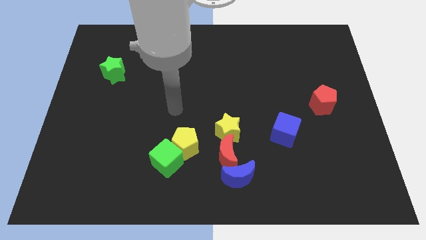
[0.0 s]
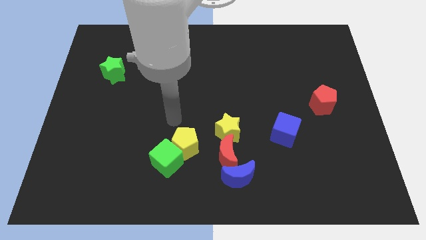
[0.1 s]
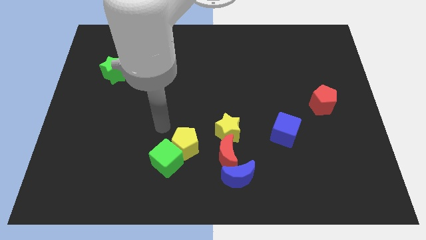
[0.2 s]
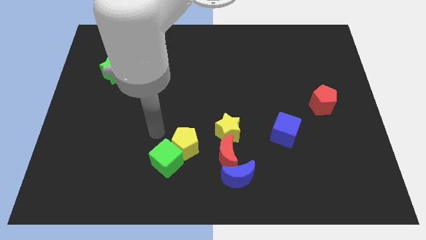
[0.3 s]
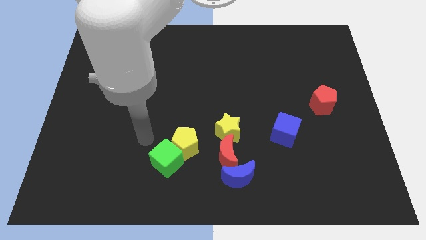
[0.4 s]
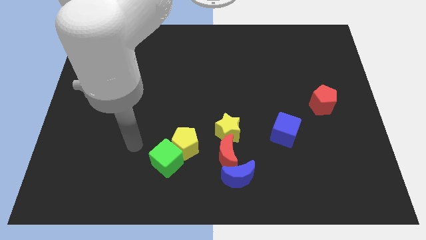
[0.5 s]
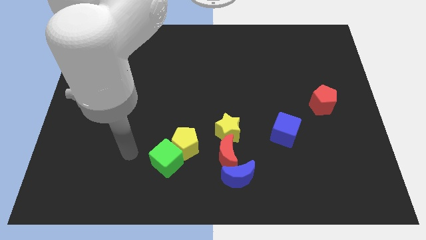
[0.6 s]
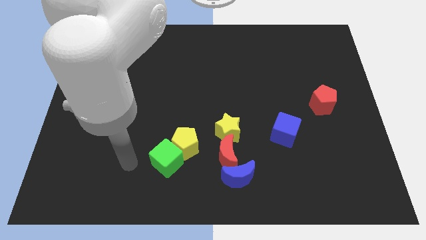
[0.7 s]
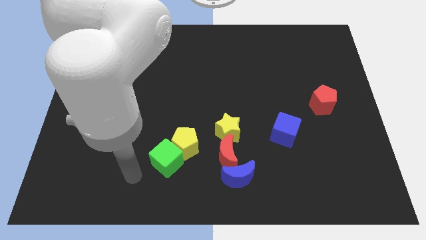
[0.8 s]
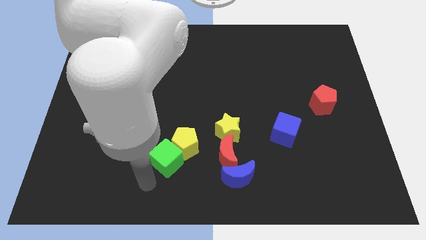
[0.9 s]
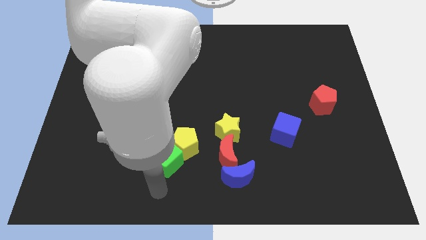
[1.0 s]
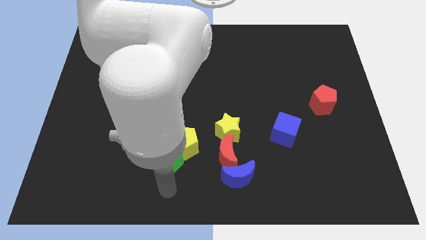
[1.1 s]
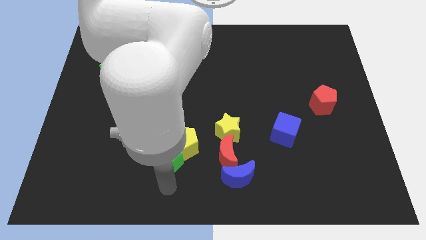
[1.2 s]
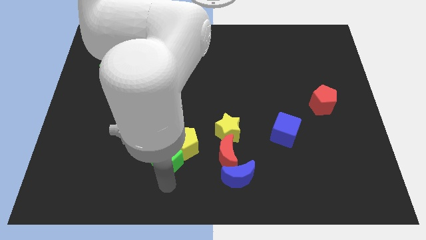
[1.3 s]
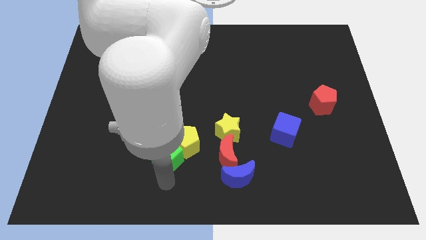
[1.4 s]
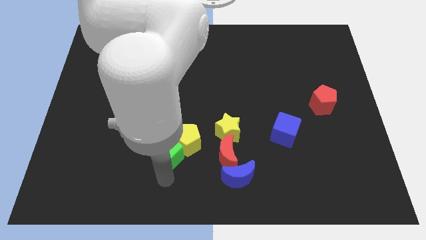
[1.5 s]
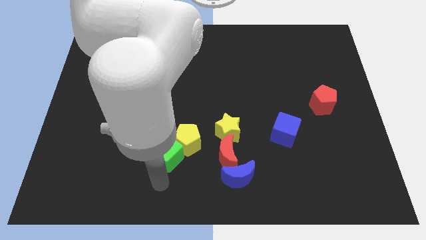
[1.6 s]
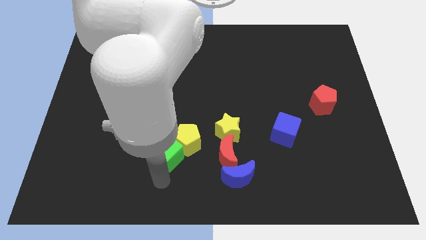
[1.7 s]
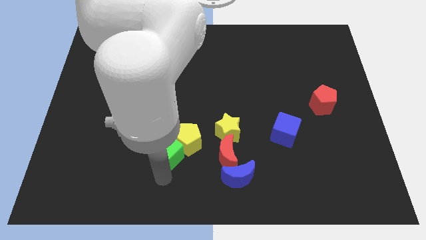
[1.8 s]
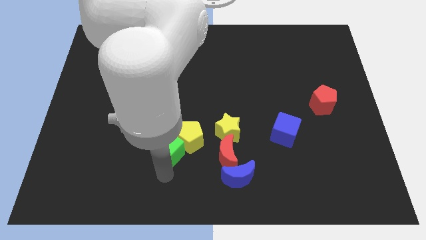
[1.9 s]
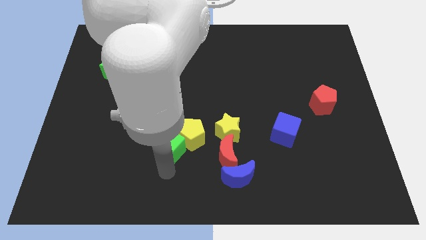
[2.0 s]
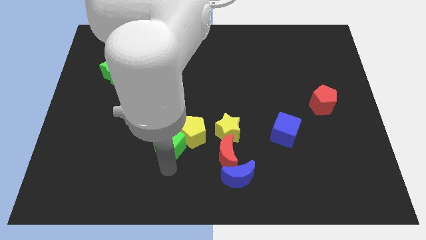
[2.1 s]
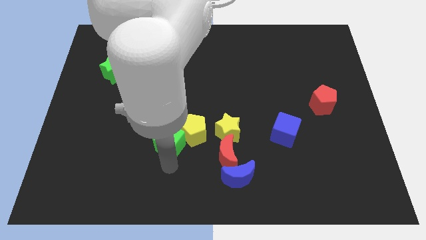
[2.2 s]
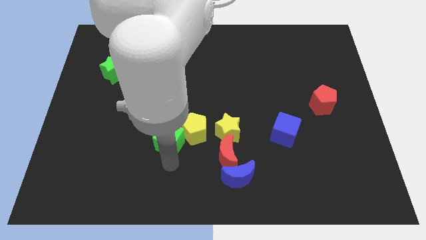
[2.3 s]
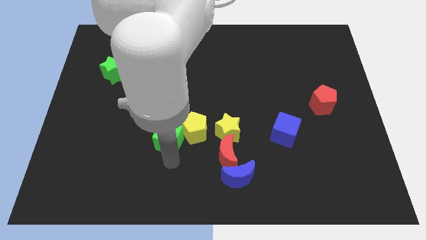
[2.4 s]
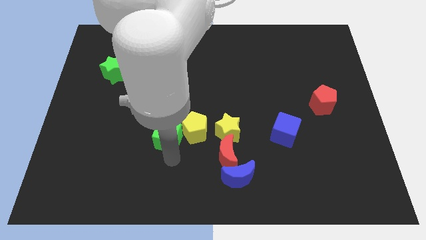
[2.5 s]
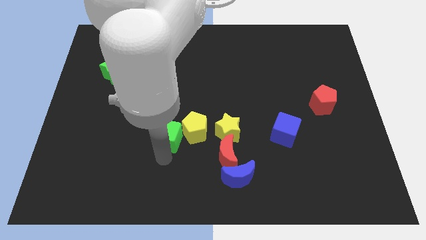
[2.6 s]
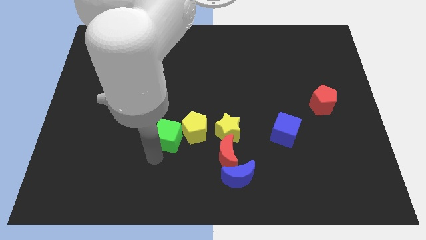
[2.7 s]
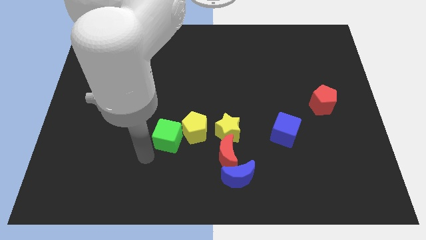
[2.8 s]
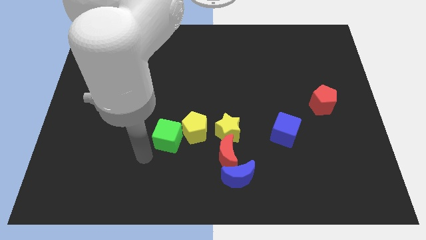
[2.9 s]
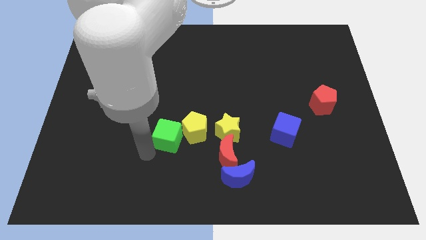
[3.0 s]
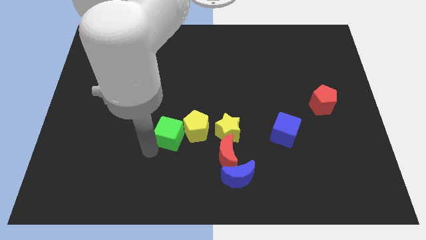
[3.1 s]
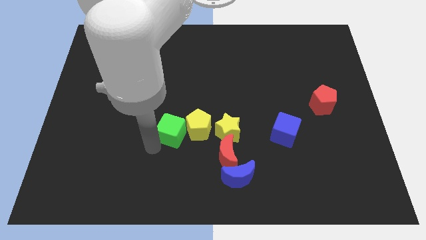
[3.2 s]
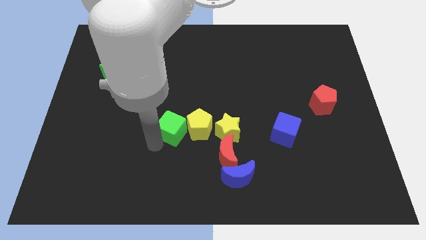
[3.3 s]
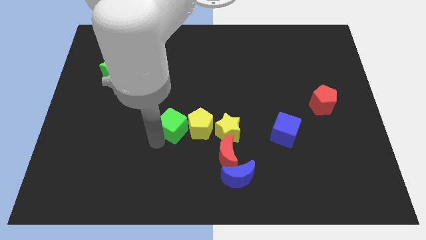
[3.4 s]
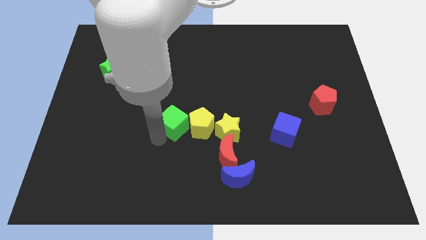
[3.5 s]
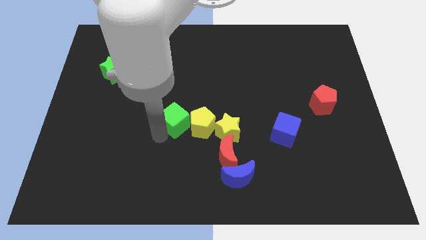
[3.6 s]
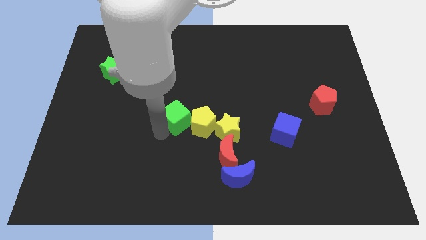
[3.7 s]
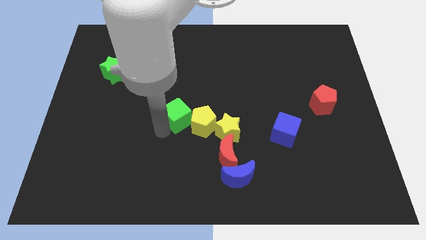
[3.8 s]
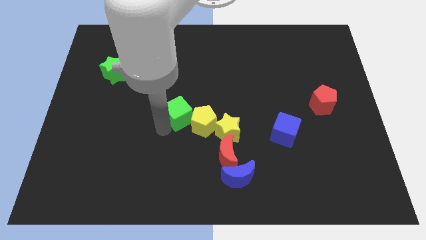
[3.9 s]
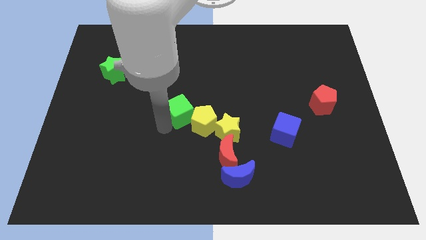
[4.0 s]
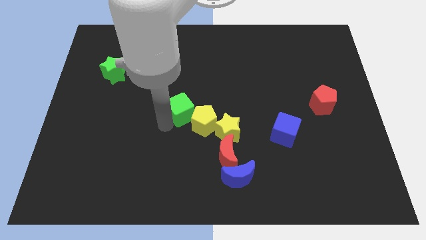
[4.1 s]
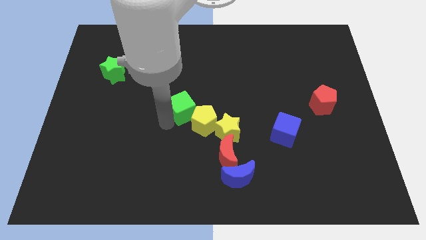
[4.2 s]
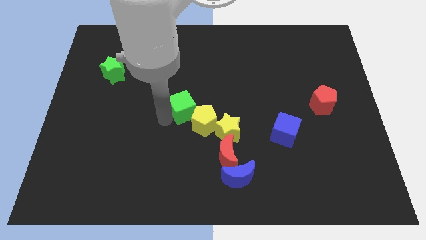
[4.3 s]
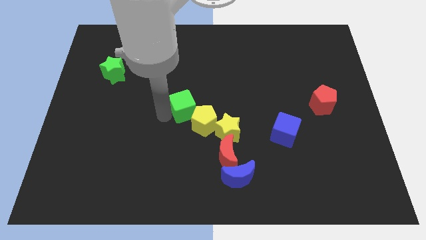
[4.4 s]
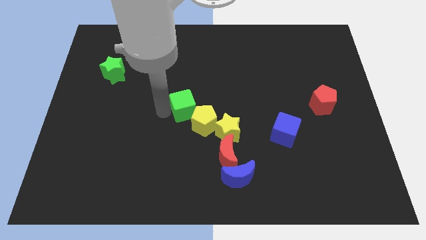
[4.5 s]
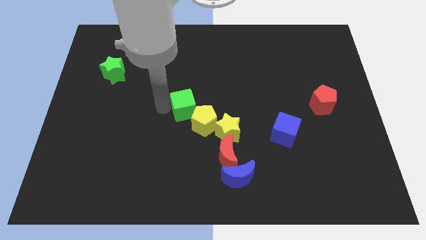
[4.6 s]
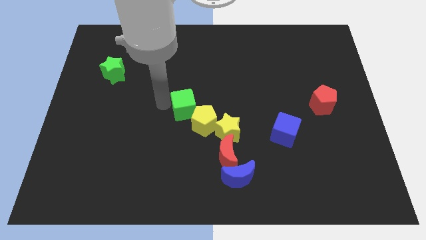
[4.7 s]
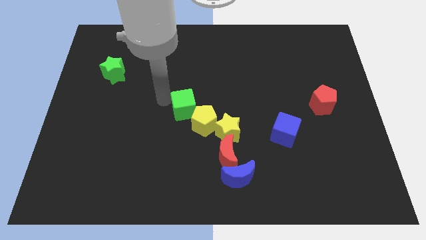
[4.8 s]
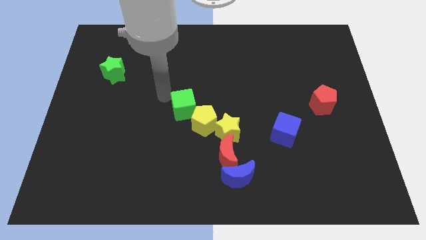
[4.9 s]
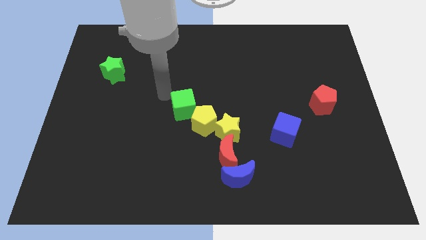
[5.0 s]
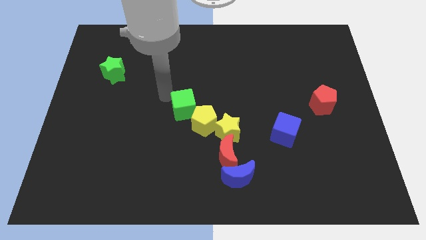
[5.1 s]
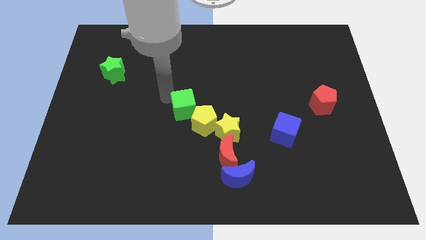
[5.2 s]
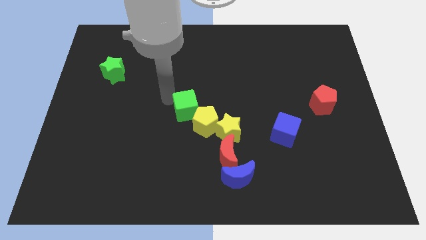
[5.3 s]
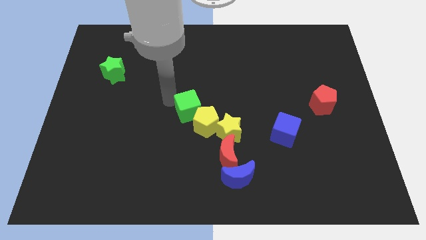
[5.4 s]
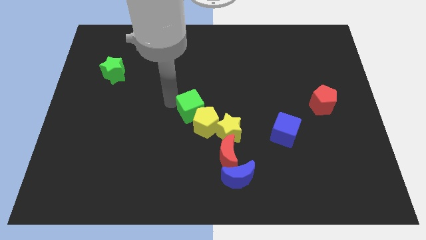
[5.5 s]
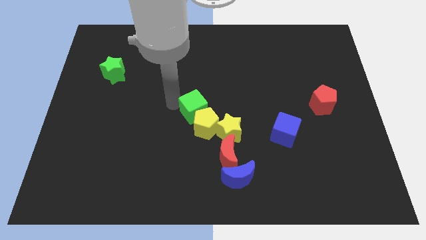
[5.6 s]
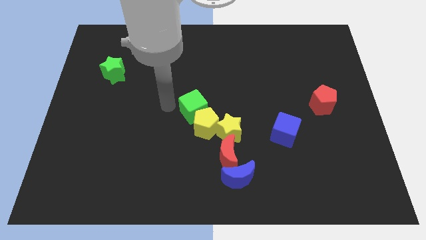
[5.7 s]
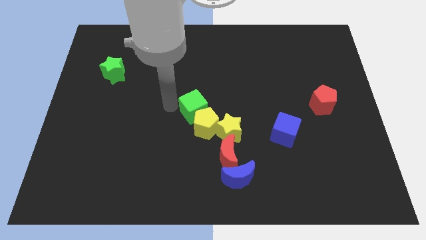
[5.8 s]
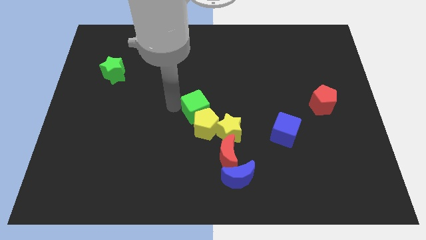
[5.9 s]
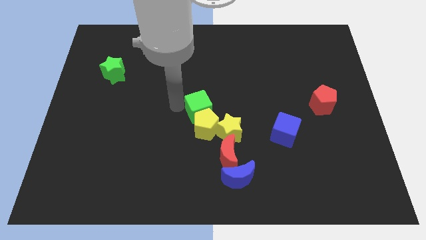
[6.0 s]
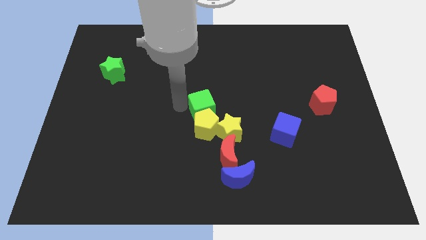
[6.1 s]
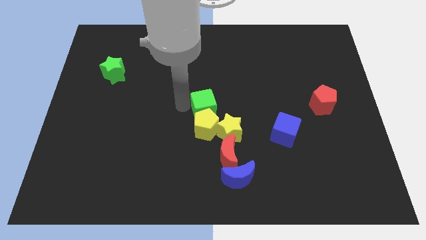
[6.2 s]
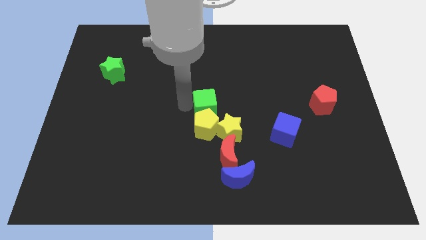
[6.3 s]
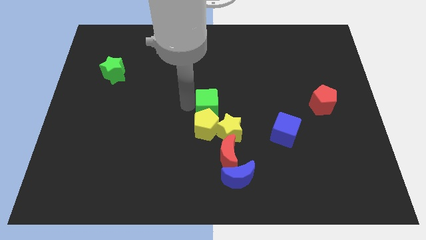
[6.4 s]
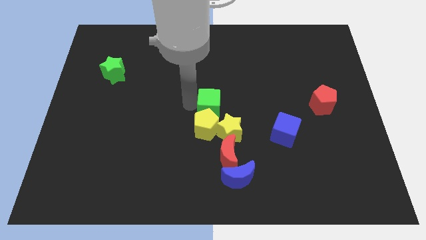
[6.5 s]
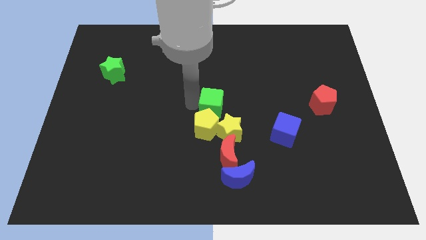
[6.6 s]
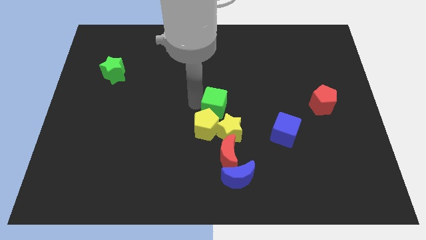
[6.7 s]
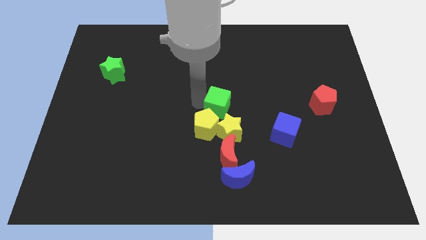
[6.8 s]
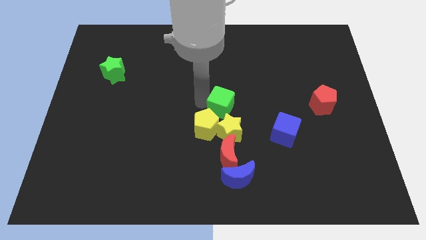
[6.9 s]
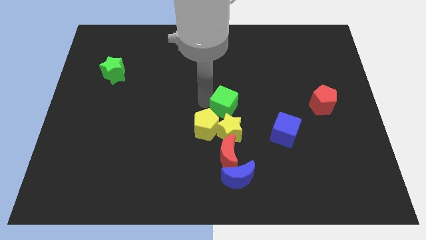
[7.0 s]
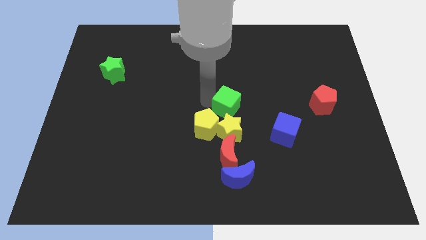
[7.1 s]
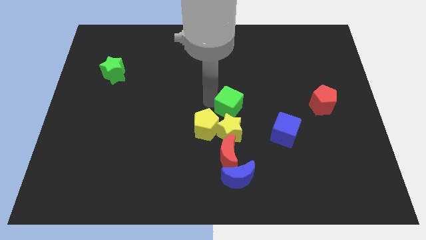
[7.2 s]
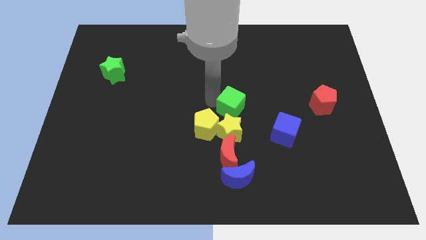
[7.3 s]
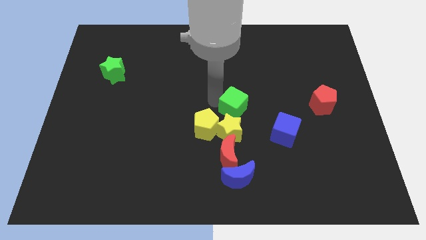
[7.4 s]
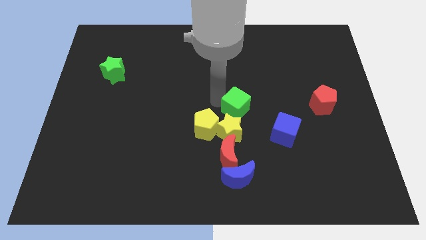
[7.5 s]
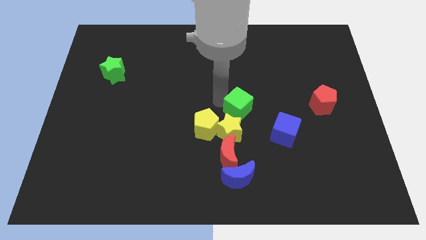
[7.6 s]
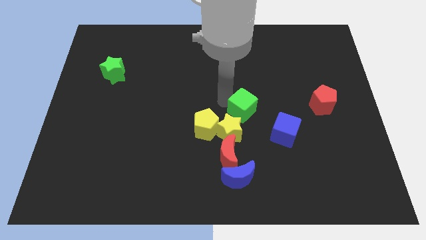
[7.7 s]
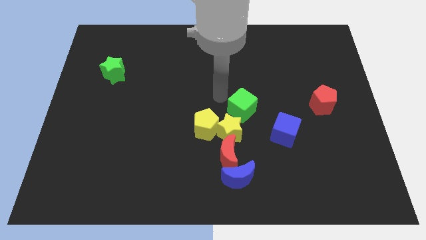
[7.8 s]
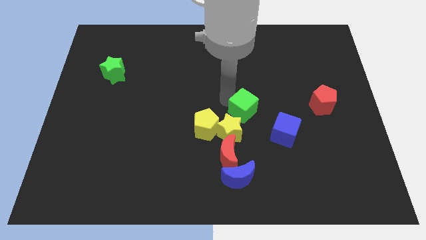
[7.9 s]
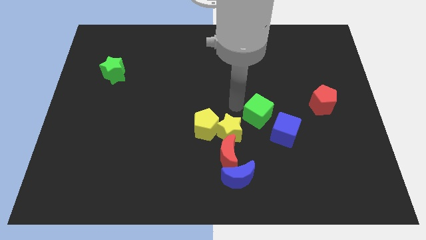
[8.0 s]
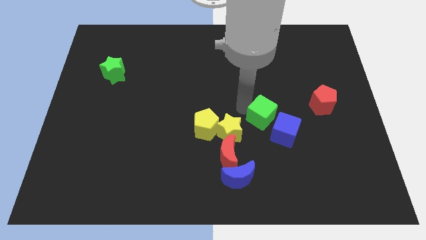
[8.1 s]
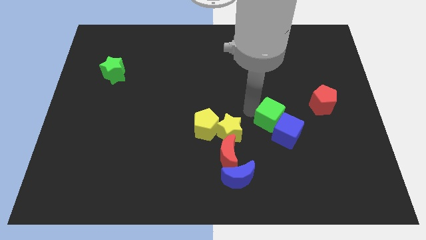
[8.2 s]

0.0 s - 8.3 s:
slide the green cube close to the blue cube
